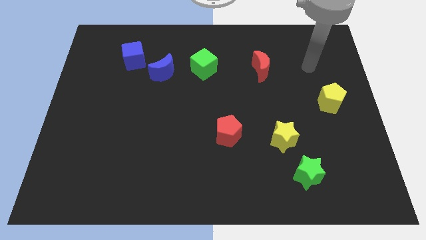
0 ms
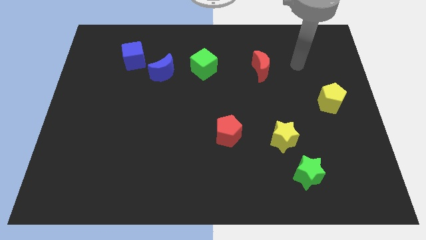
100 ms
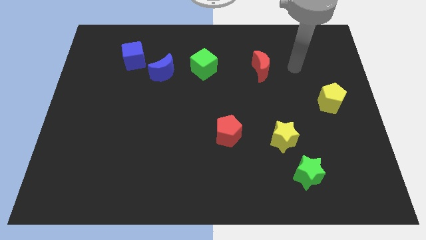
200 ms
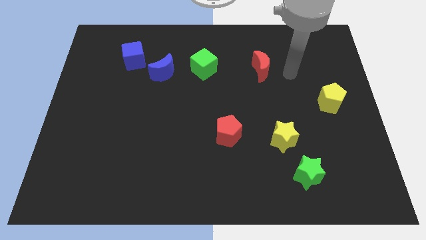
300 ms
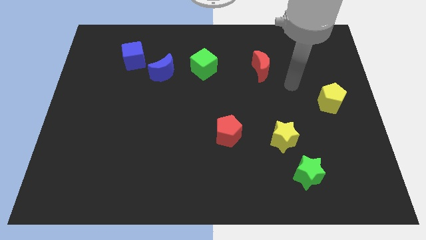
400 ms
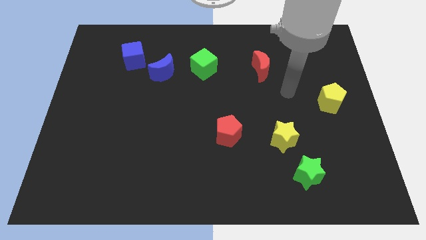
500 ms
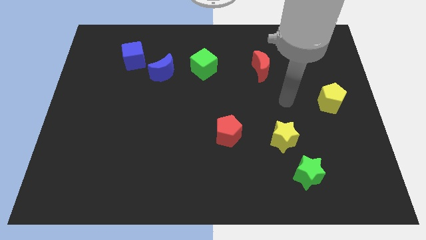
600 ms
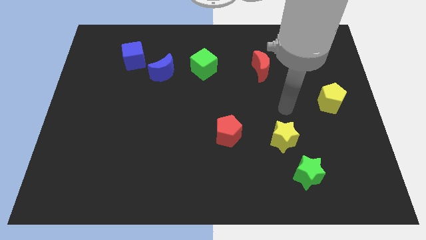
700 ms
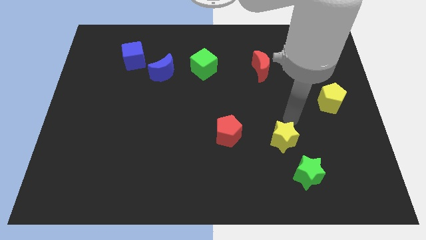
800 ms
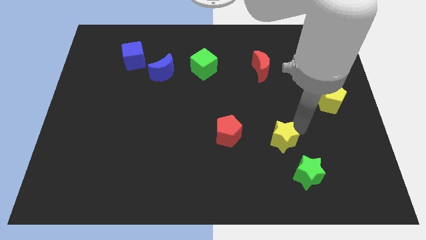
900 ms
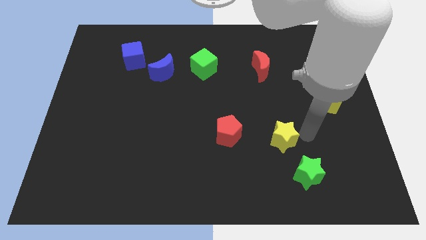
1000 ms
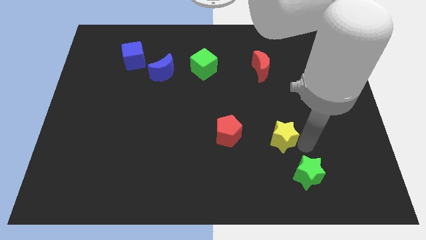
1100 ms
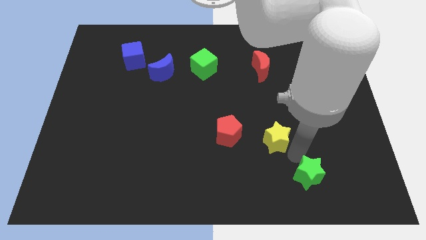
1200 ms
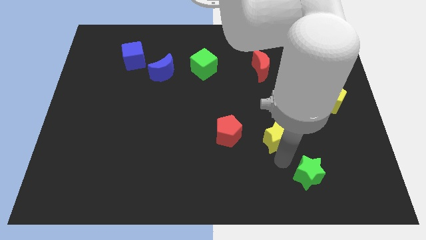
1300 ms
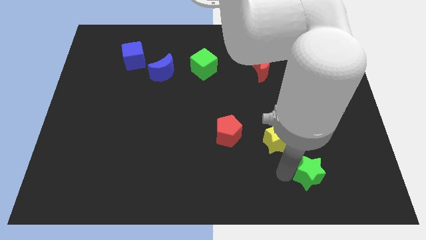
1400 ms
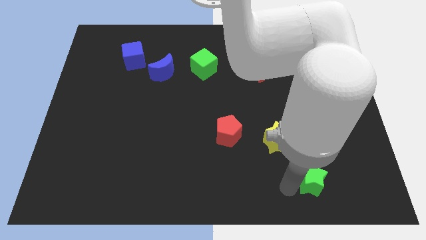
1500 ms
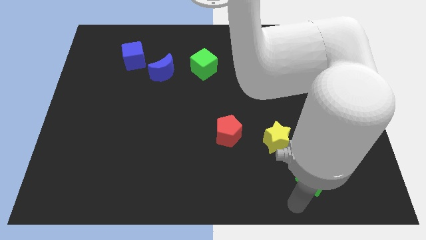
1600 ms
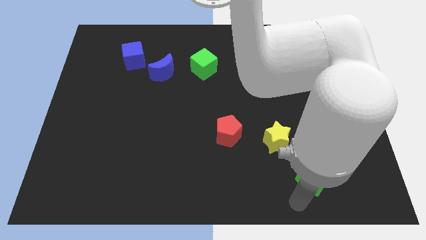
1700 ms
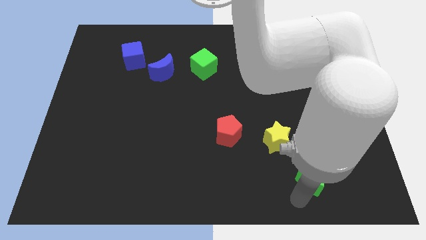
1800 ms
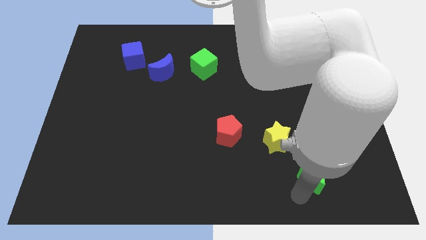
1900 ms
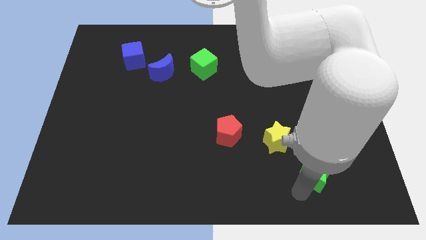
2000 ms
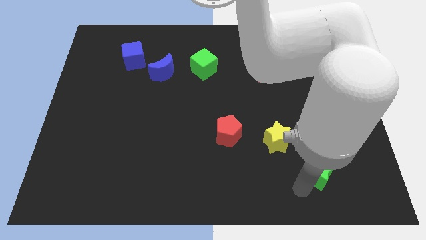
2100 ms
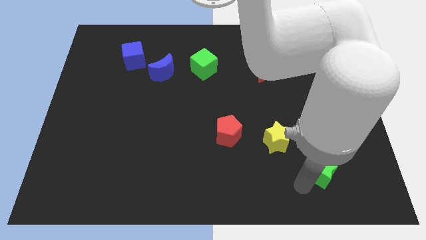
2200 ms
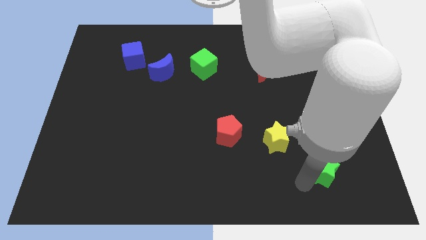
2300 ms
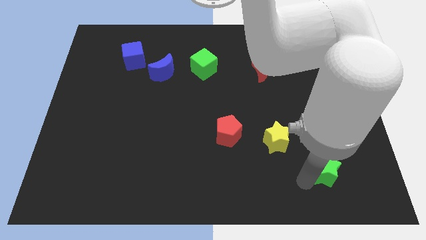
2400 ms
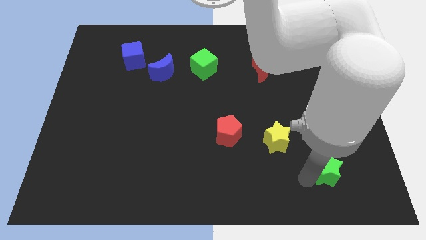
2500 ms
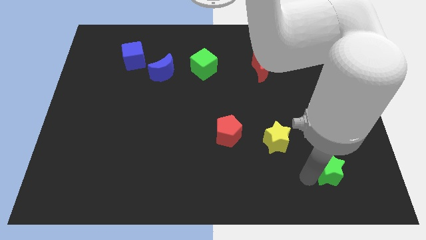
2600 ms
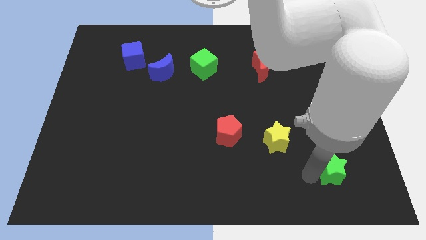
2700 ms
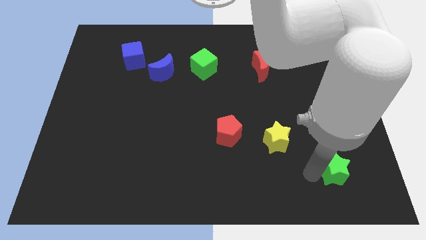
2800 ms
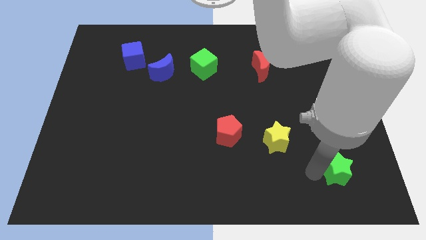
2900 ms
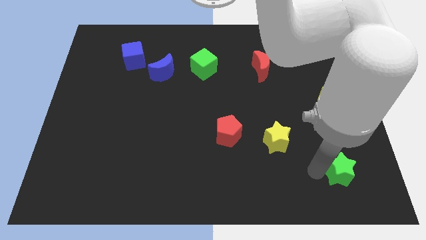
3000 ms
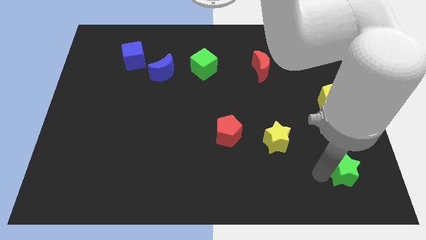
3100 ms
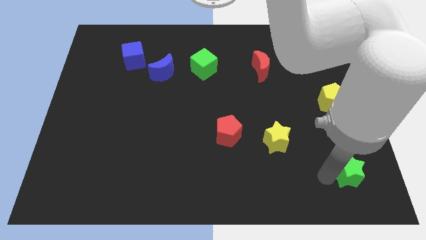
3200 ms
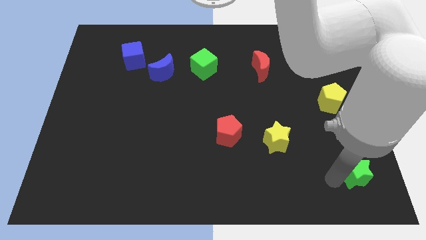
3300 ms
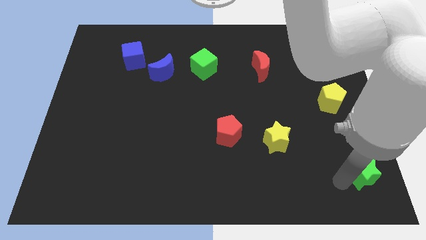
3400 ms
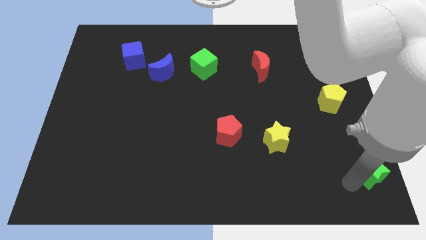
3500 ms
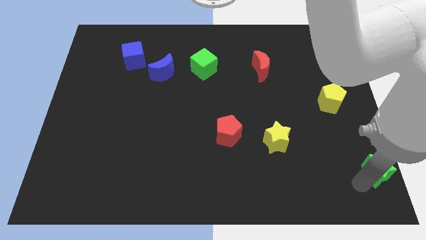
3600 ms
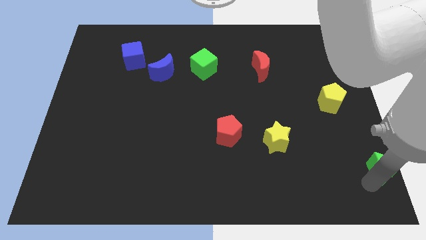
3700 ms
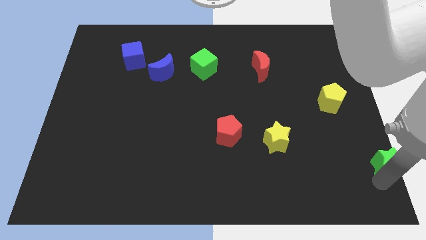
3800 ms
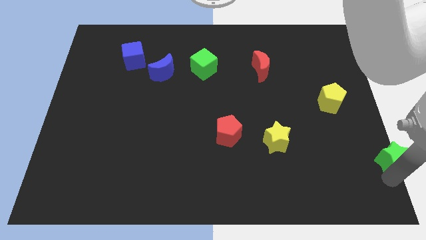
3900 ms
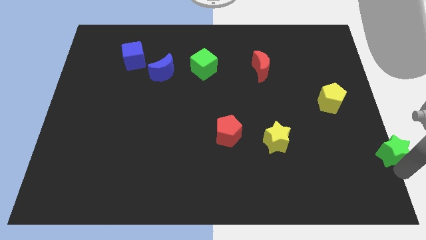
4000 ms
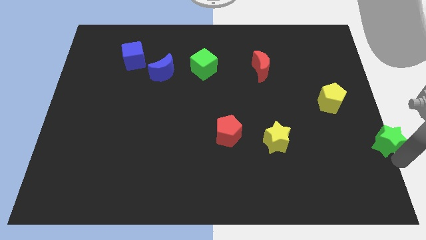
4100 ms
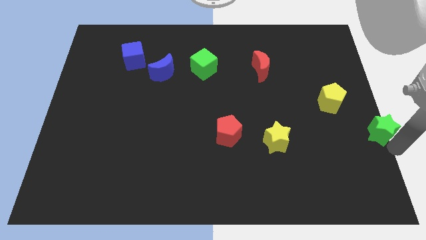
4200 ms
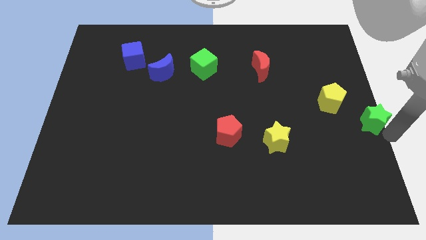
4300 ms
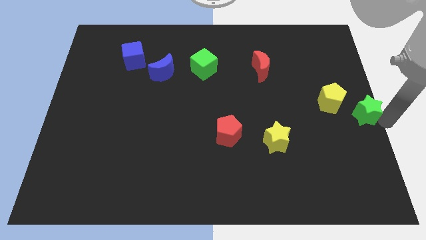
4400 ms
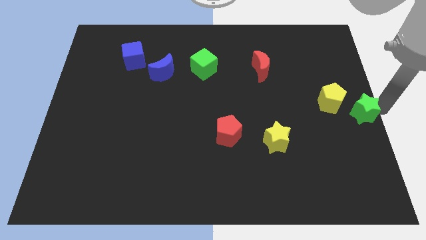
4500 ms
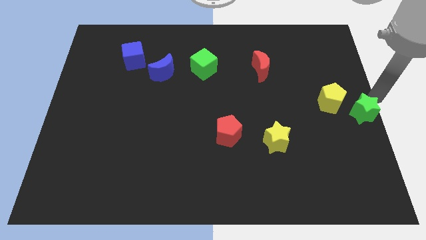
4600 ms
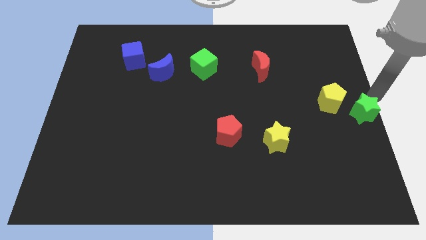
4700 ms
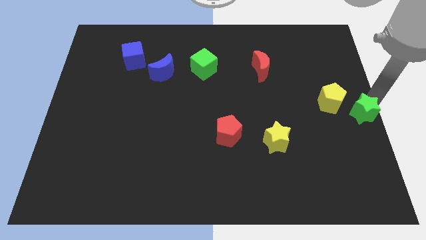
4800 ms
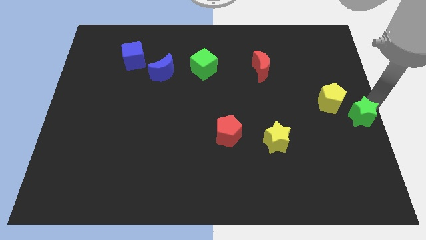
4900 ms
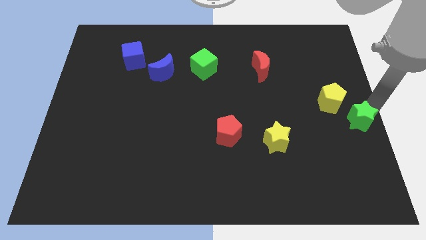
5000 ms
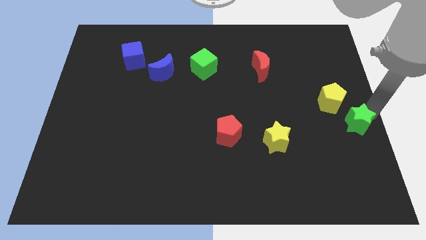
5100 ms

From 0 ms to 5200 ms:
move the green star to the bottom side of the yellow pentagon

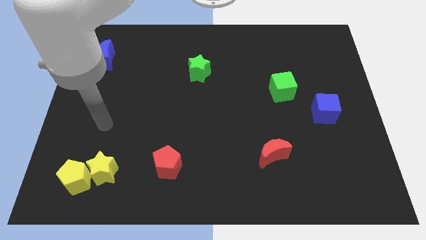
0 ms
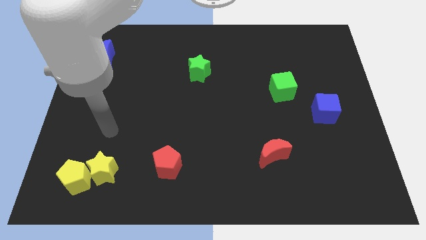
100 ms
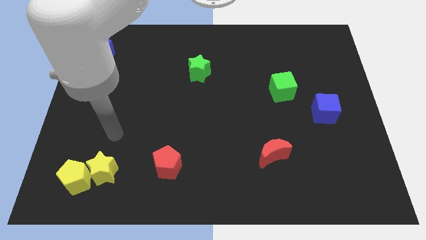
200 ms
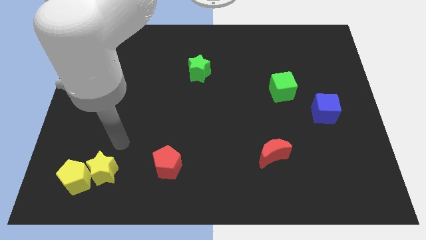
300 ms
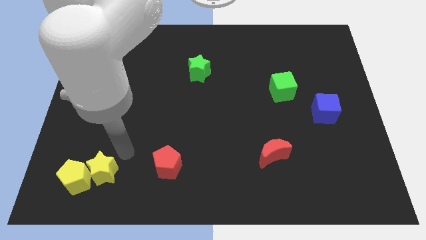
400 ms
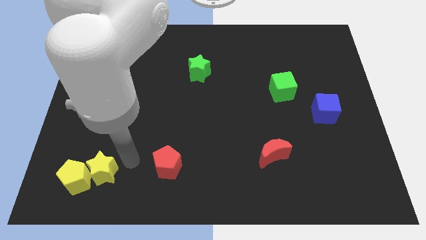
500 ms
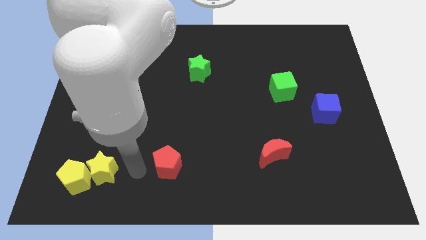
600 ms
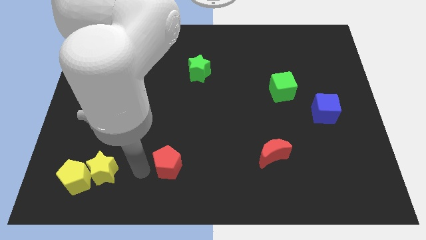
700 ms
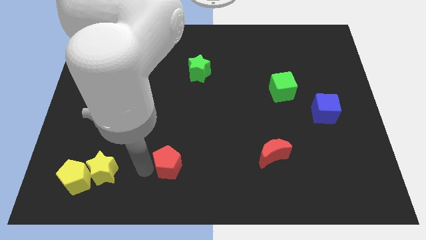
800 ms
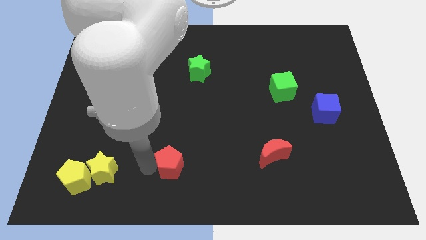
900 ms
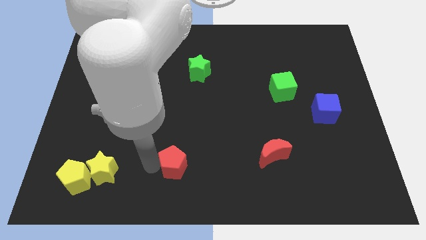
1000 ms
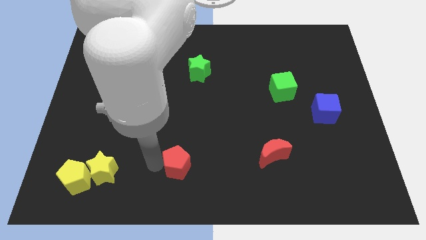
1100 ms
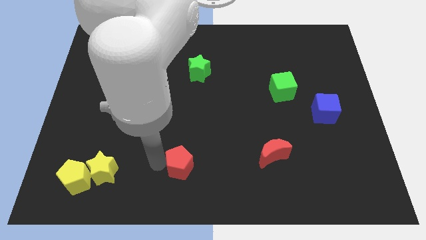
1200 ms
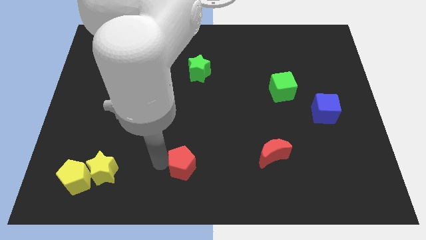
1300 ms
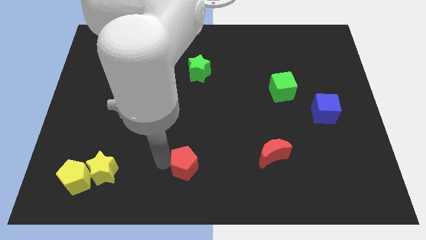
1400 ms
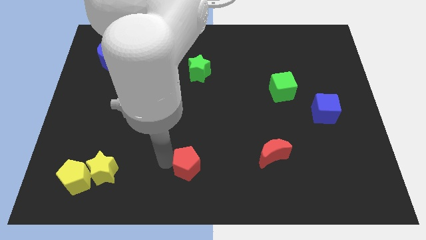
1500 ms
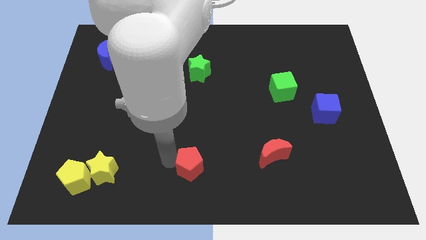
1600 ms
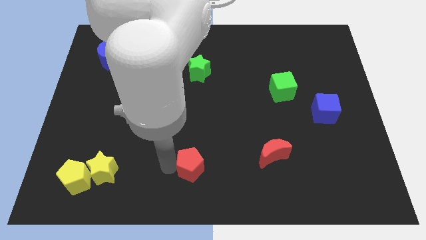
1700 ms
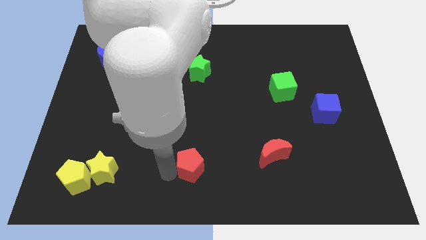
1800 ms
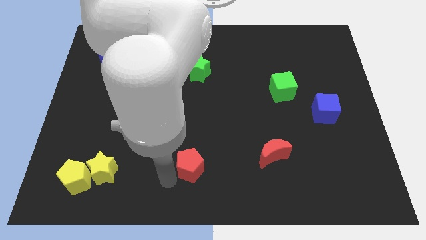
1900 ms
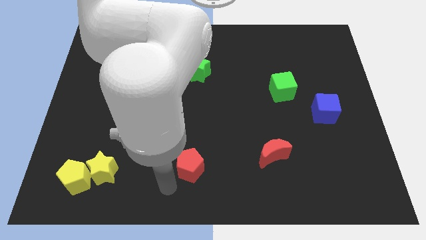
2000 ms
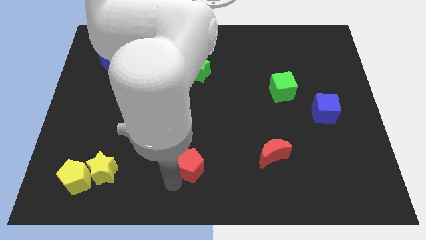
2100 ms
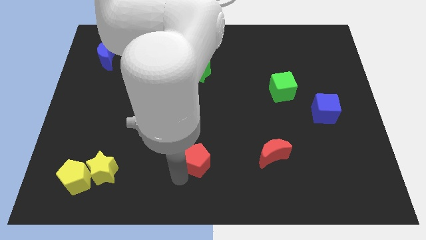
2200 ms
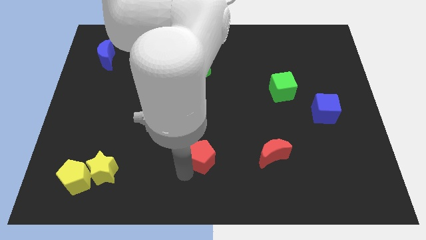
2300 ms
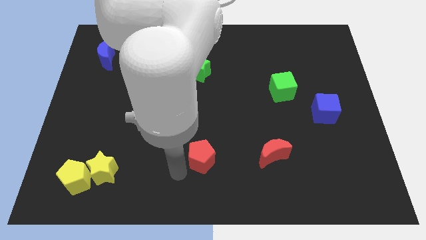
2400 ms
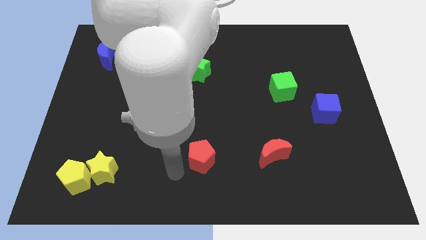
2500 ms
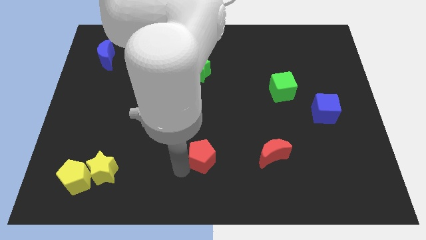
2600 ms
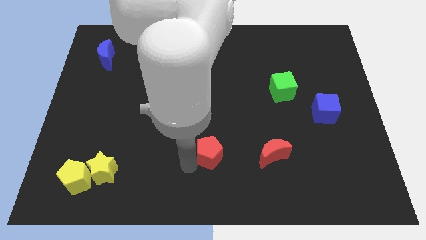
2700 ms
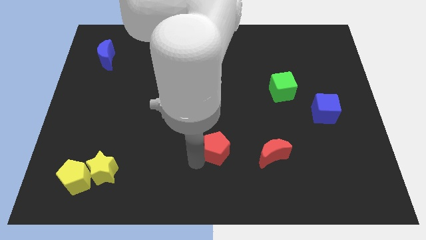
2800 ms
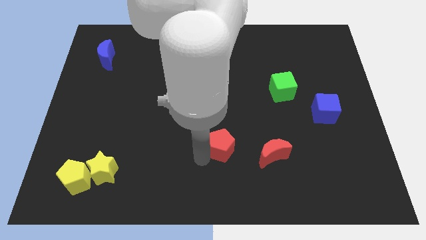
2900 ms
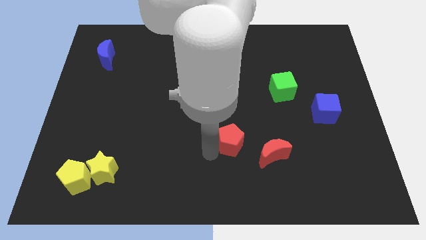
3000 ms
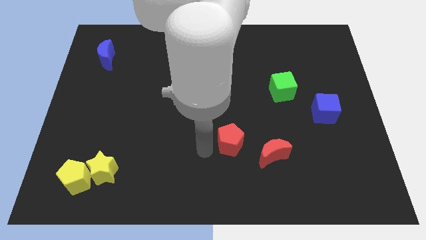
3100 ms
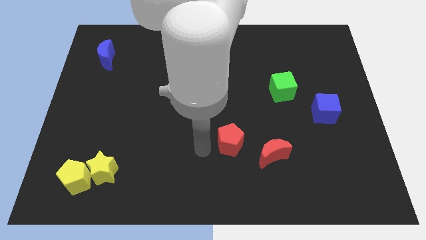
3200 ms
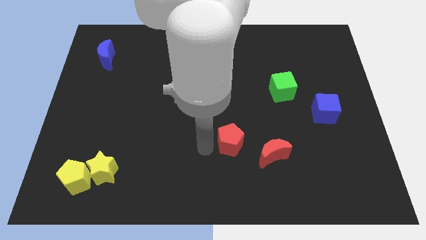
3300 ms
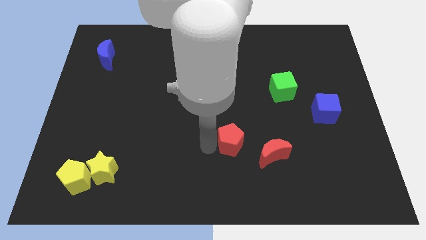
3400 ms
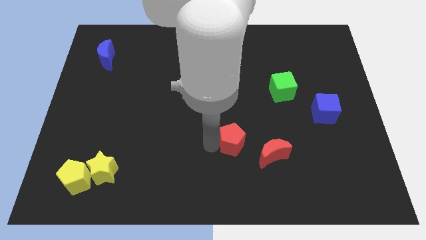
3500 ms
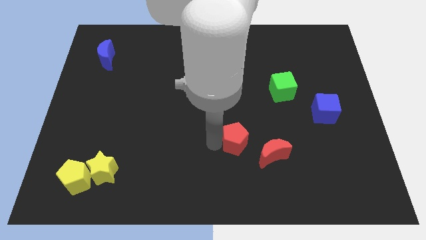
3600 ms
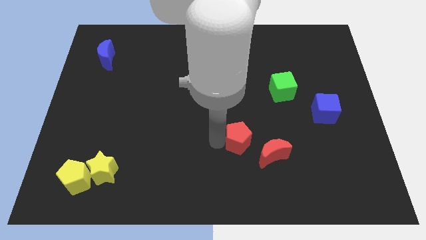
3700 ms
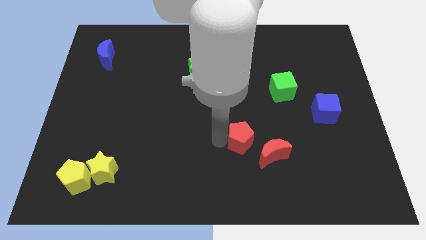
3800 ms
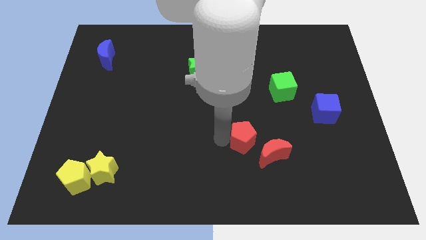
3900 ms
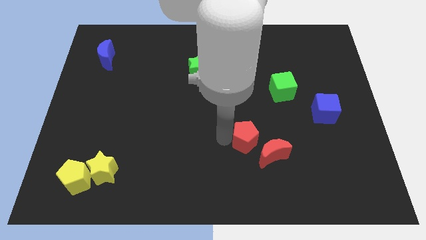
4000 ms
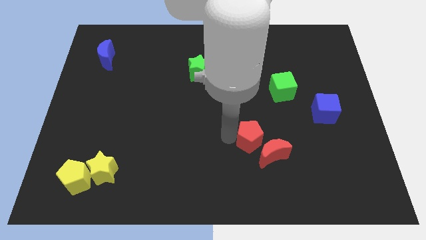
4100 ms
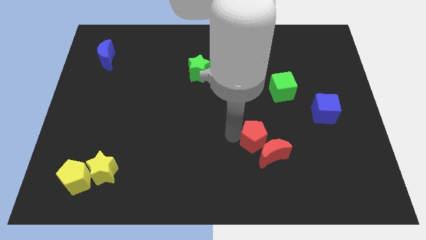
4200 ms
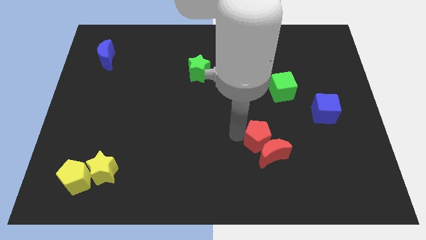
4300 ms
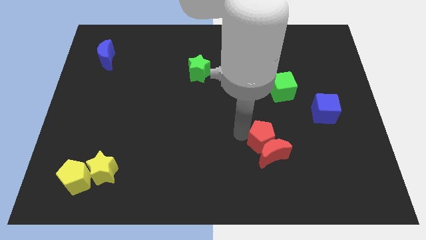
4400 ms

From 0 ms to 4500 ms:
put the red pentagon to the top right of the red moon
